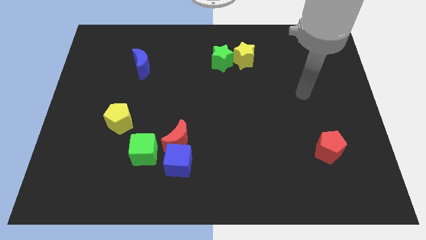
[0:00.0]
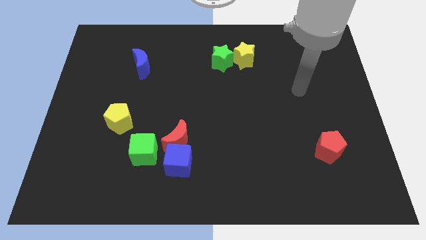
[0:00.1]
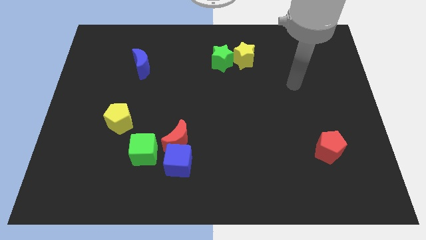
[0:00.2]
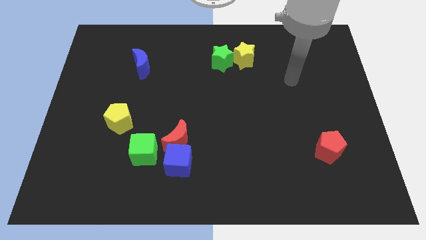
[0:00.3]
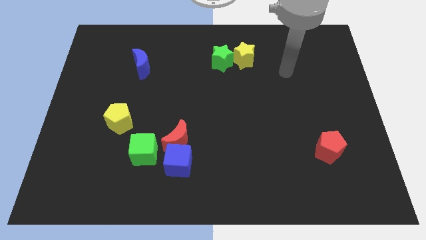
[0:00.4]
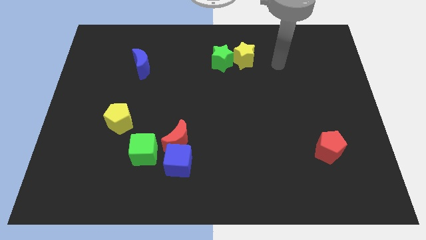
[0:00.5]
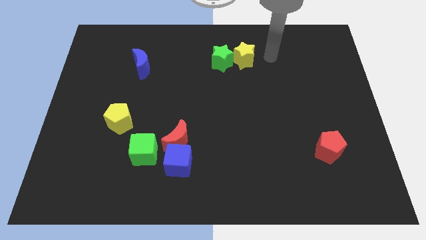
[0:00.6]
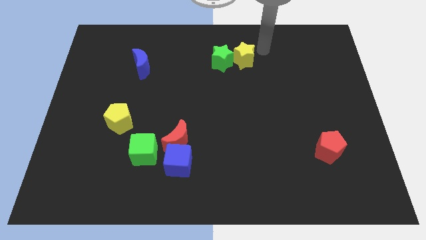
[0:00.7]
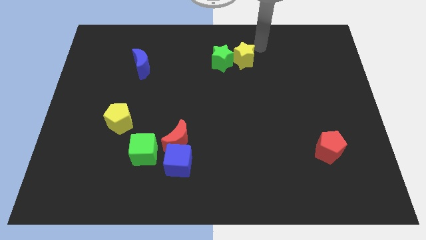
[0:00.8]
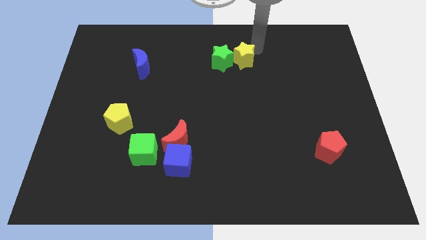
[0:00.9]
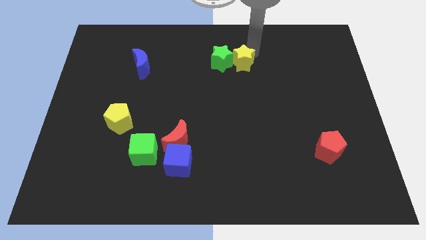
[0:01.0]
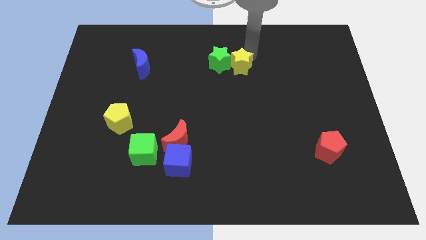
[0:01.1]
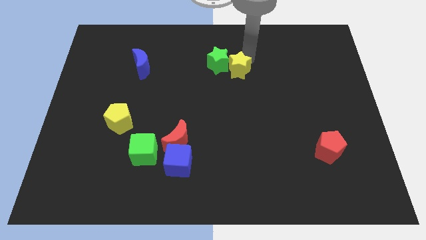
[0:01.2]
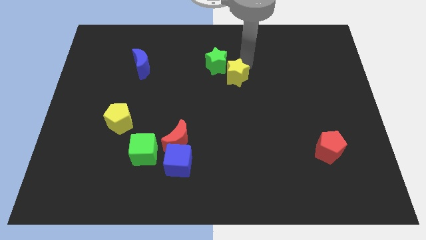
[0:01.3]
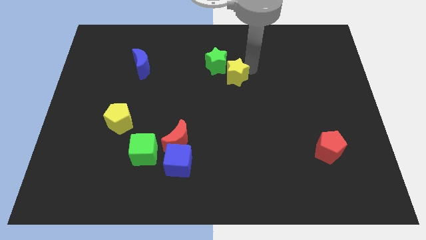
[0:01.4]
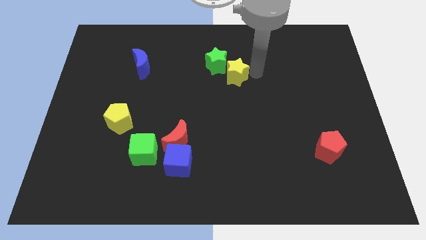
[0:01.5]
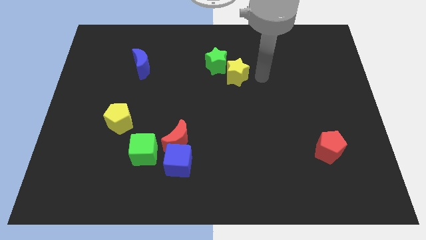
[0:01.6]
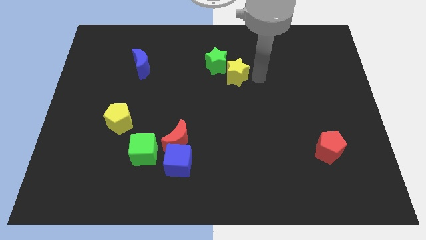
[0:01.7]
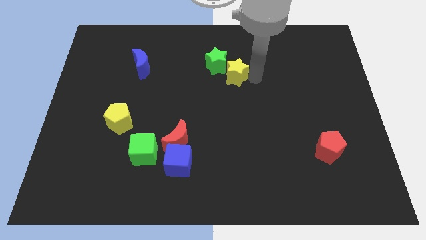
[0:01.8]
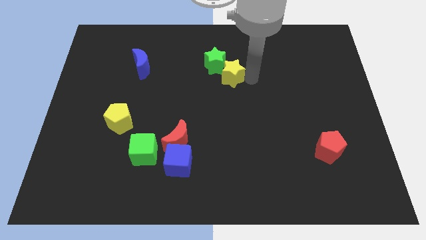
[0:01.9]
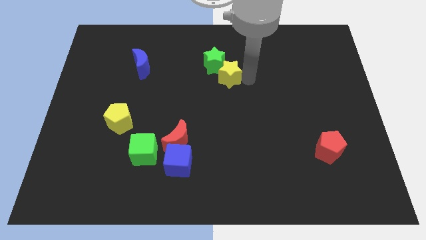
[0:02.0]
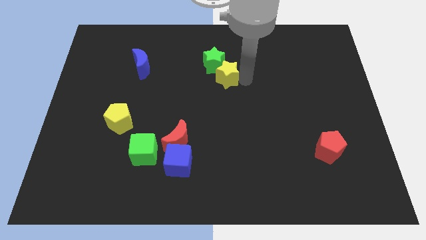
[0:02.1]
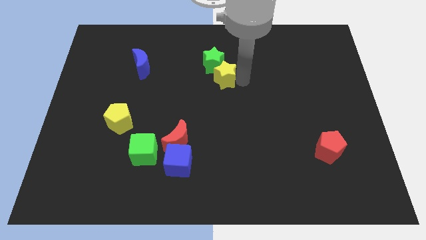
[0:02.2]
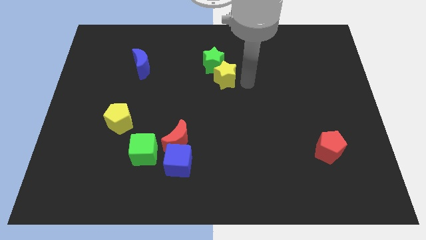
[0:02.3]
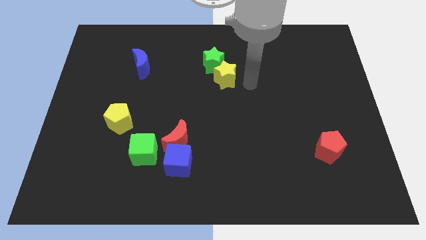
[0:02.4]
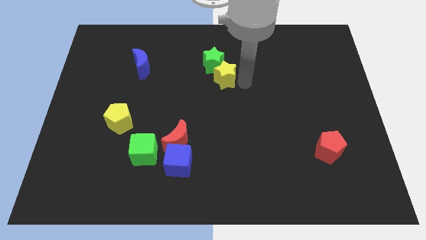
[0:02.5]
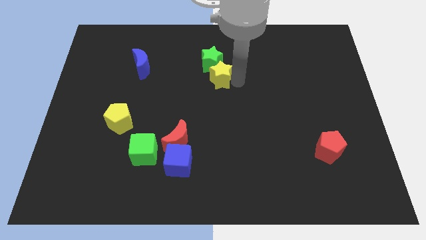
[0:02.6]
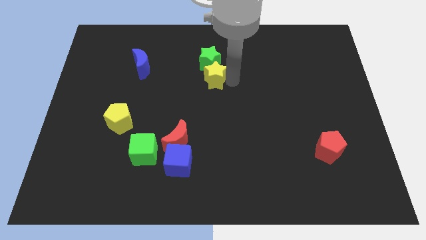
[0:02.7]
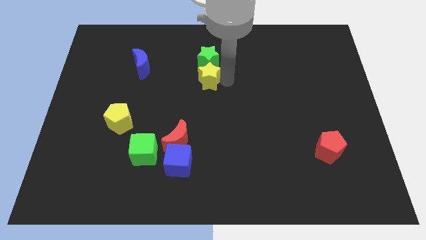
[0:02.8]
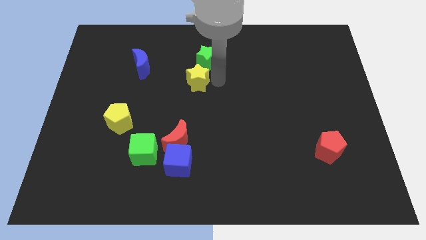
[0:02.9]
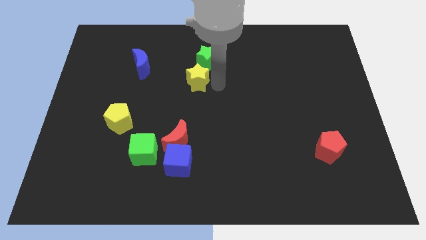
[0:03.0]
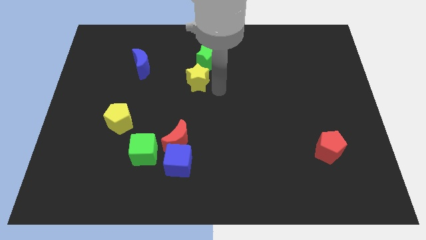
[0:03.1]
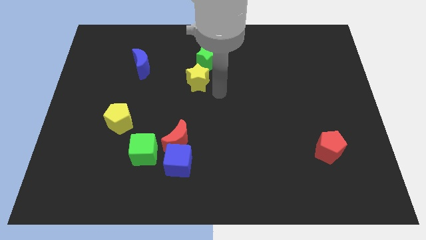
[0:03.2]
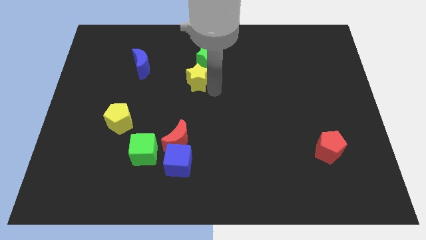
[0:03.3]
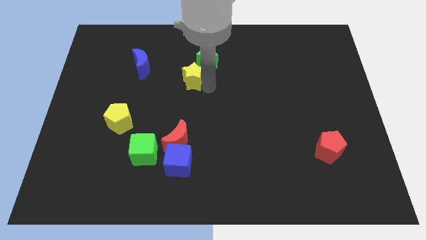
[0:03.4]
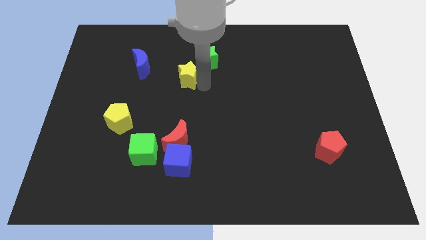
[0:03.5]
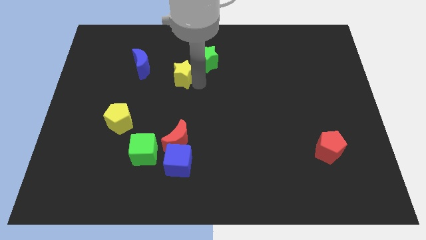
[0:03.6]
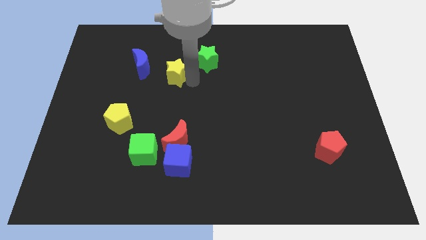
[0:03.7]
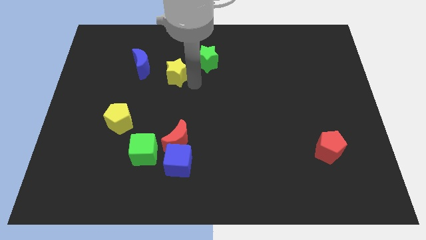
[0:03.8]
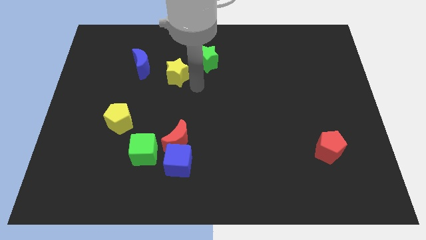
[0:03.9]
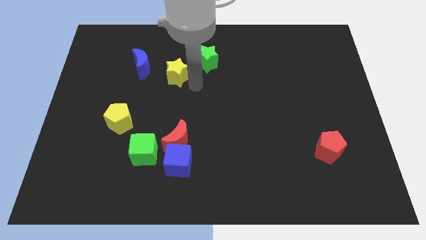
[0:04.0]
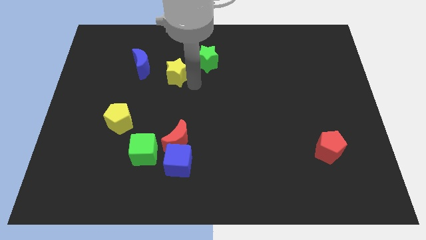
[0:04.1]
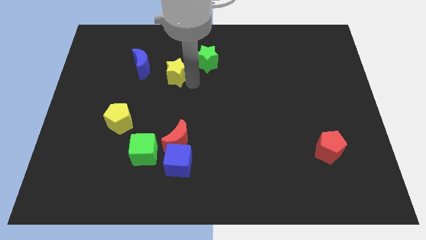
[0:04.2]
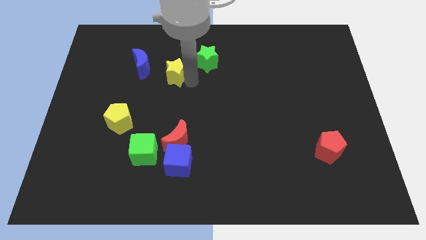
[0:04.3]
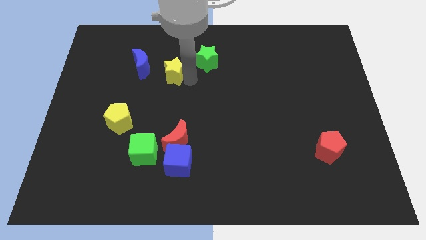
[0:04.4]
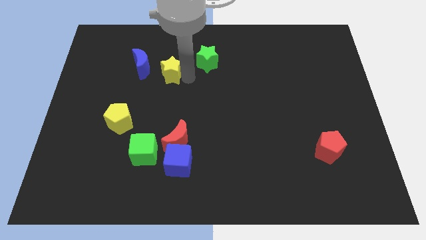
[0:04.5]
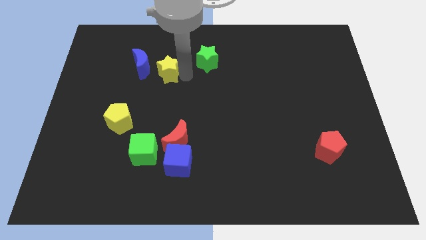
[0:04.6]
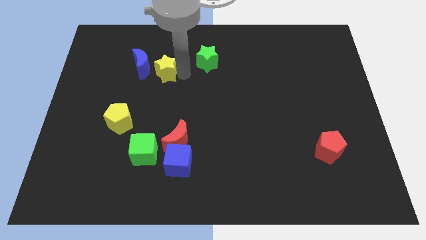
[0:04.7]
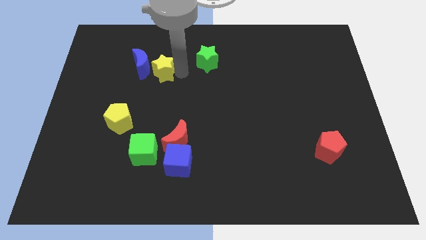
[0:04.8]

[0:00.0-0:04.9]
move the yellow star to the blue moon

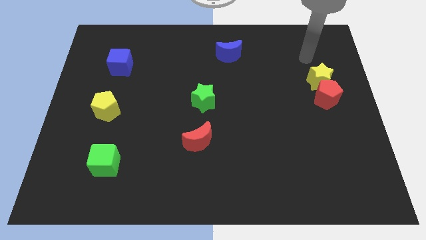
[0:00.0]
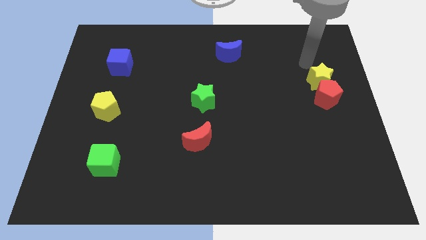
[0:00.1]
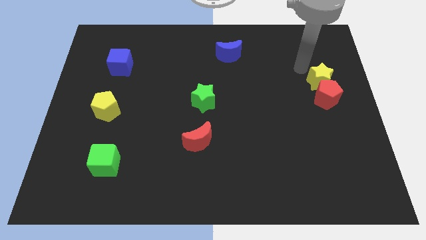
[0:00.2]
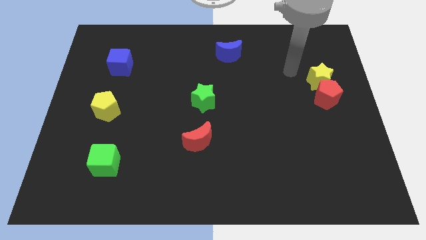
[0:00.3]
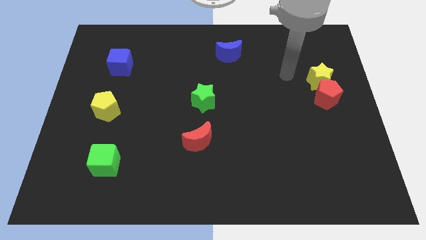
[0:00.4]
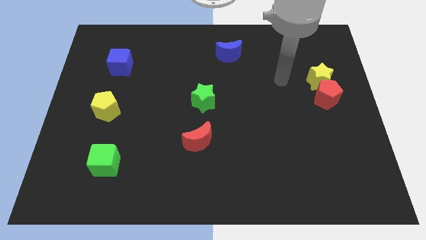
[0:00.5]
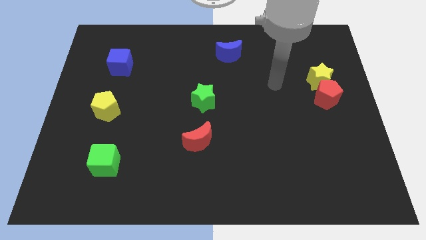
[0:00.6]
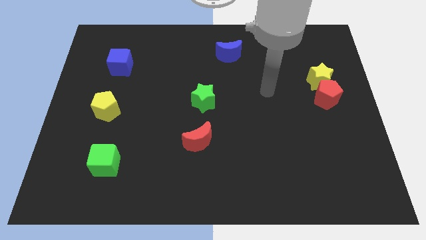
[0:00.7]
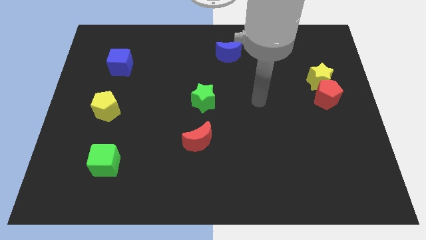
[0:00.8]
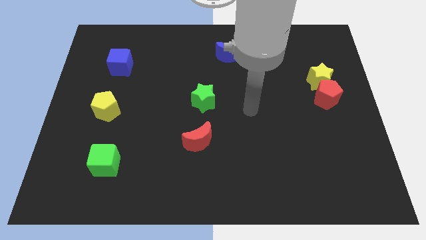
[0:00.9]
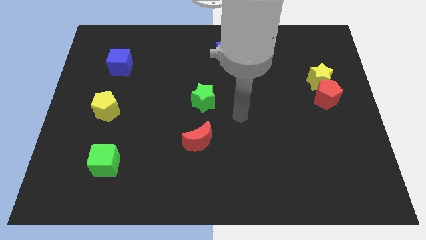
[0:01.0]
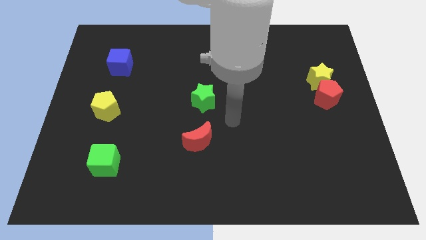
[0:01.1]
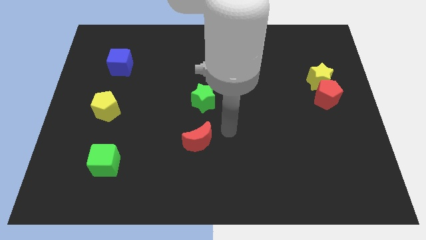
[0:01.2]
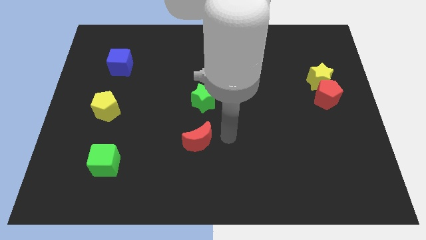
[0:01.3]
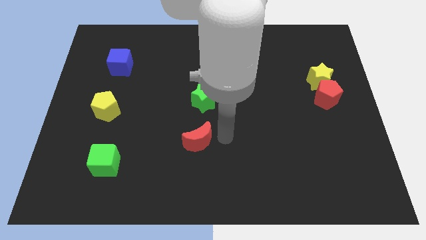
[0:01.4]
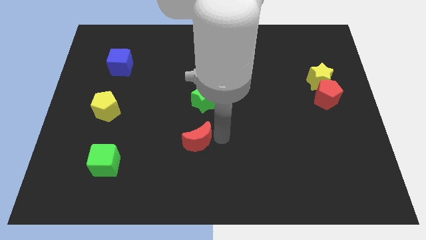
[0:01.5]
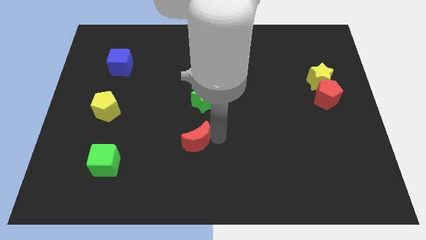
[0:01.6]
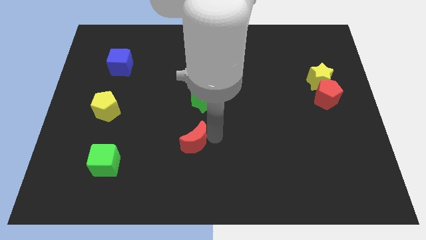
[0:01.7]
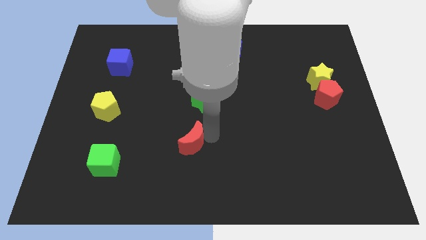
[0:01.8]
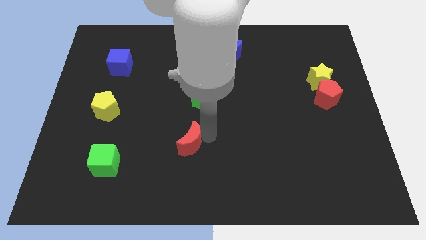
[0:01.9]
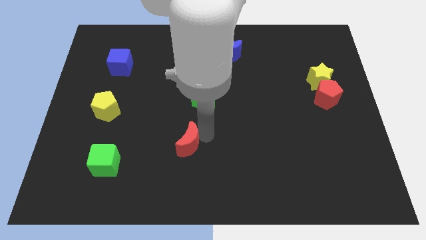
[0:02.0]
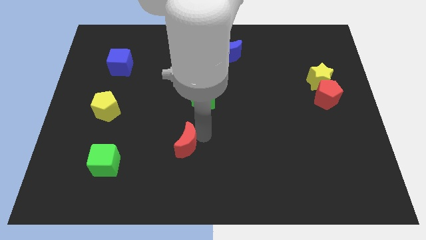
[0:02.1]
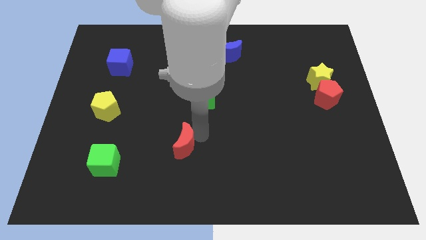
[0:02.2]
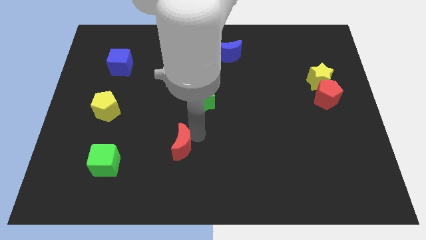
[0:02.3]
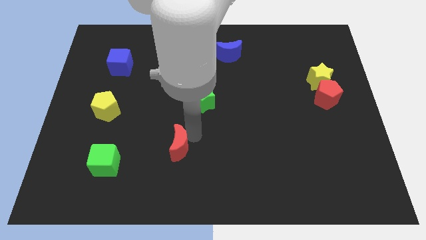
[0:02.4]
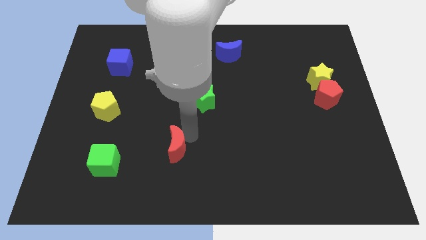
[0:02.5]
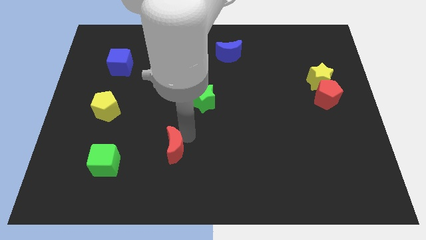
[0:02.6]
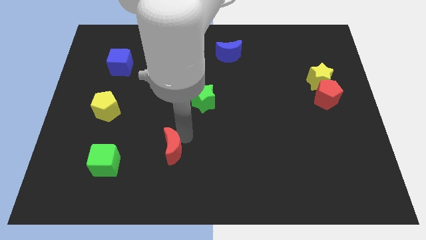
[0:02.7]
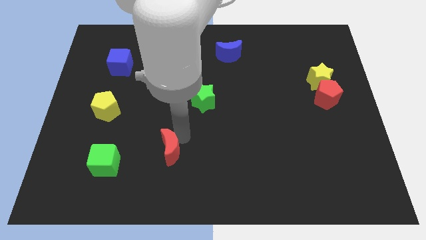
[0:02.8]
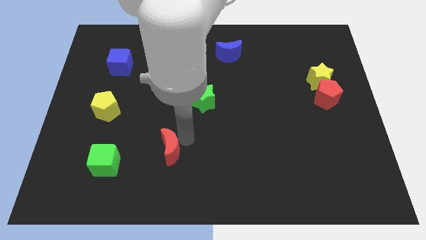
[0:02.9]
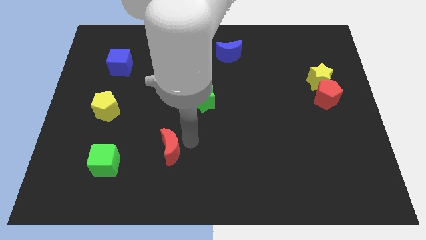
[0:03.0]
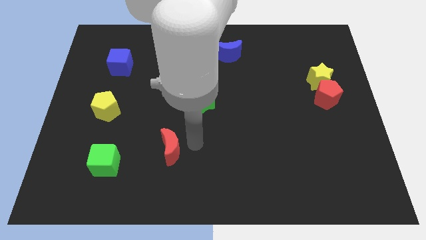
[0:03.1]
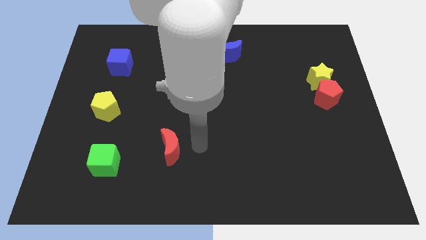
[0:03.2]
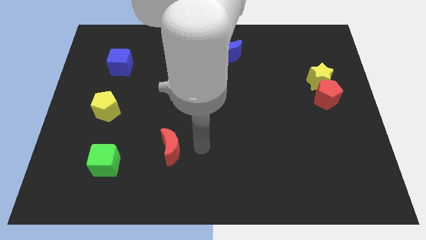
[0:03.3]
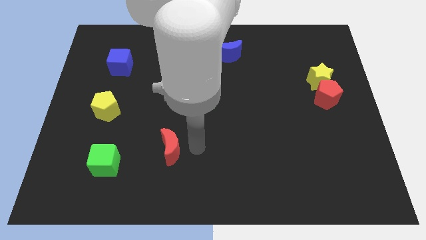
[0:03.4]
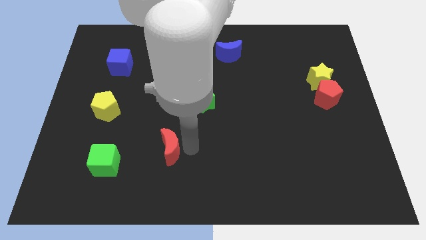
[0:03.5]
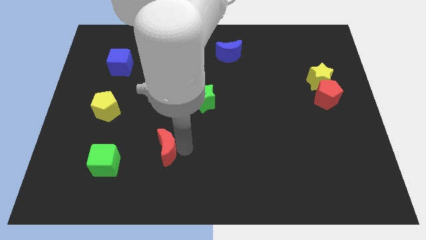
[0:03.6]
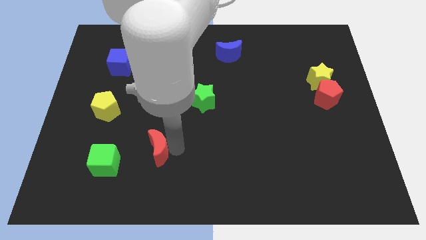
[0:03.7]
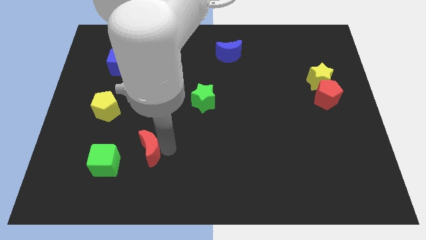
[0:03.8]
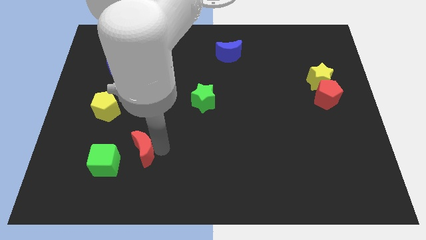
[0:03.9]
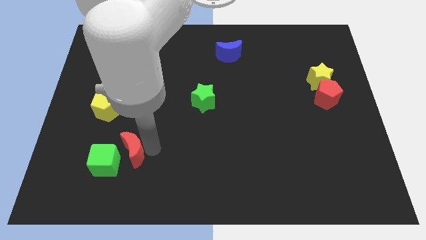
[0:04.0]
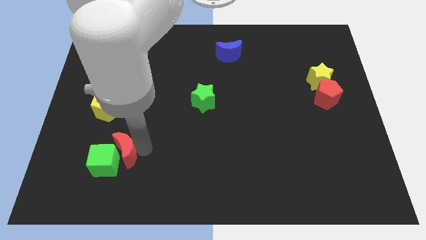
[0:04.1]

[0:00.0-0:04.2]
slide the red moon close to the green cube
